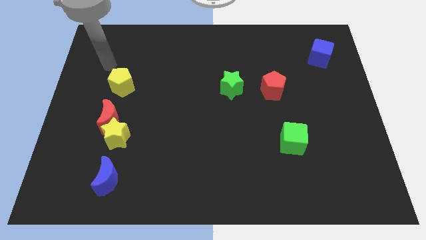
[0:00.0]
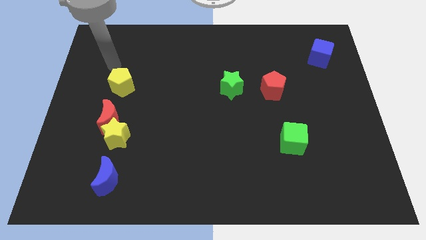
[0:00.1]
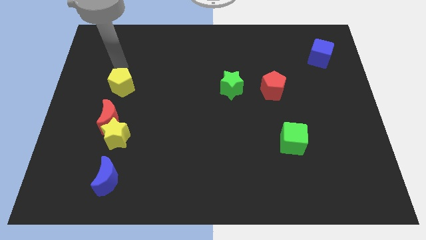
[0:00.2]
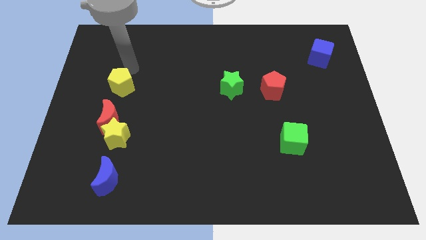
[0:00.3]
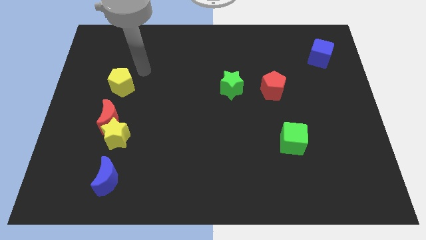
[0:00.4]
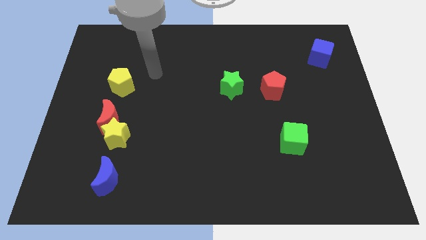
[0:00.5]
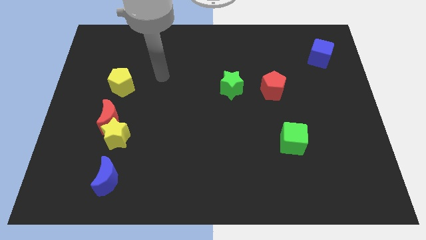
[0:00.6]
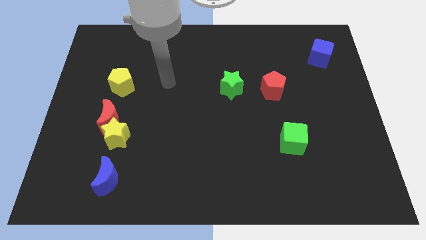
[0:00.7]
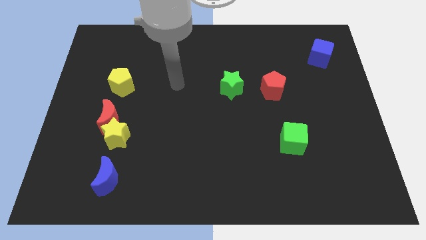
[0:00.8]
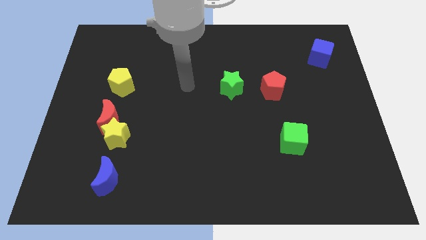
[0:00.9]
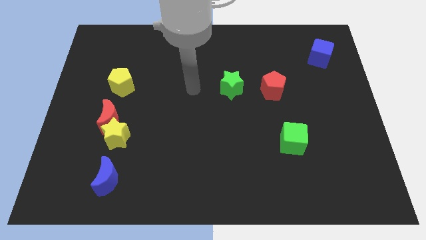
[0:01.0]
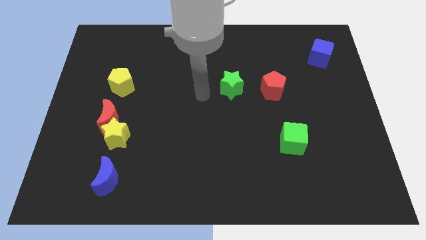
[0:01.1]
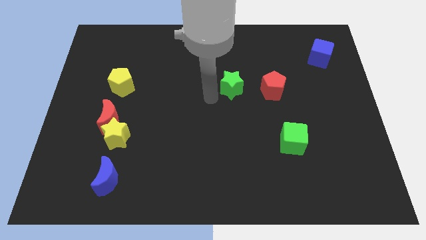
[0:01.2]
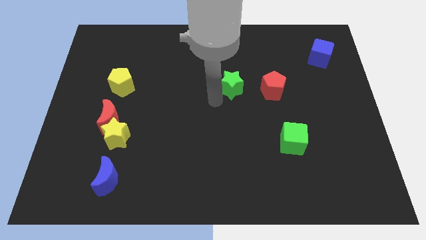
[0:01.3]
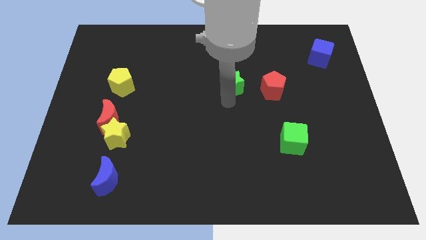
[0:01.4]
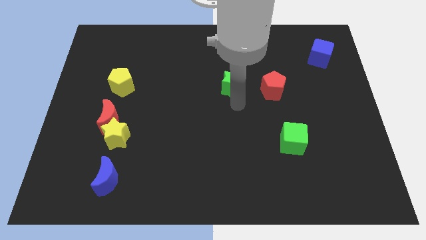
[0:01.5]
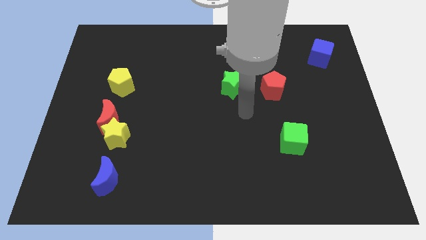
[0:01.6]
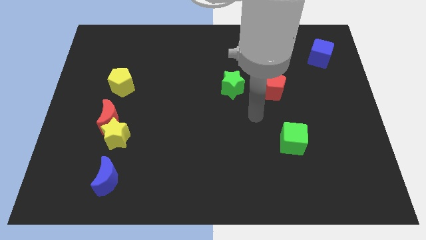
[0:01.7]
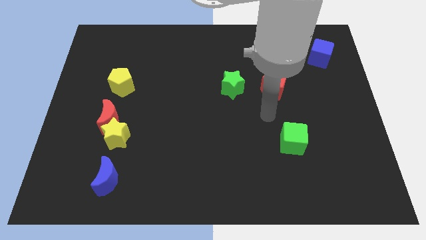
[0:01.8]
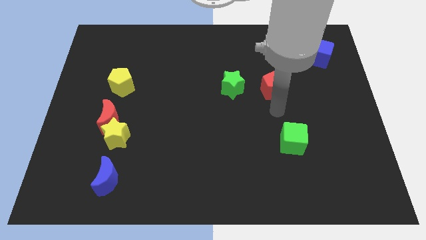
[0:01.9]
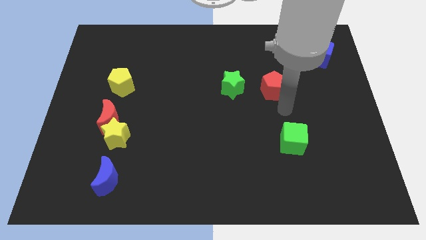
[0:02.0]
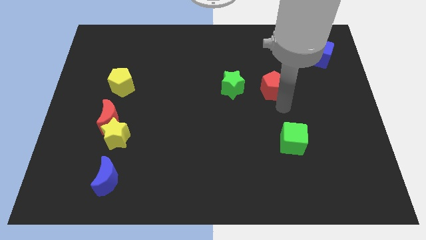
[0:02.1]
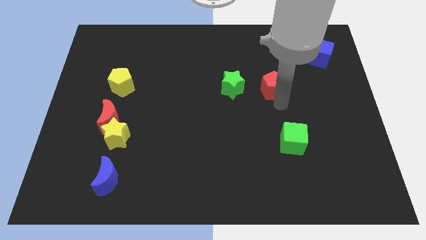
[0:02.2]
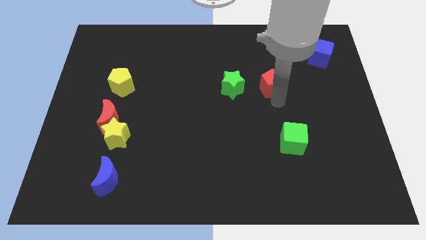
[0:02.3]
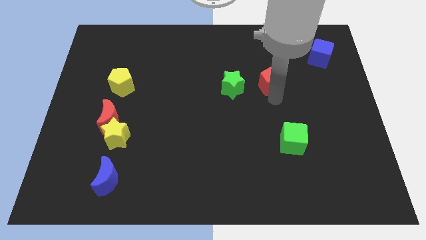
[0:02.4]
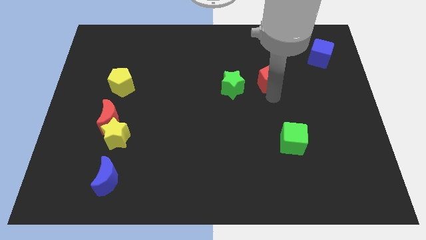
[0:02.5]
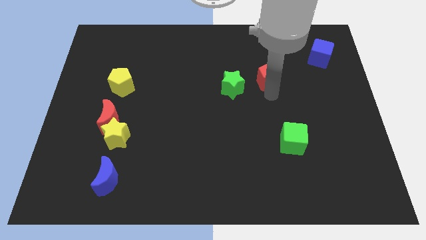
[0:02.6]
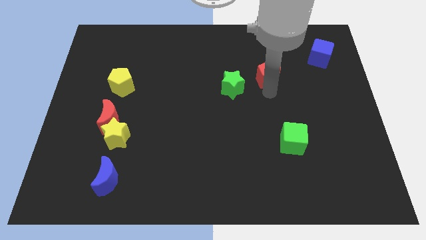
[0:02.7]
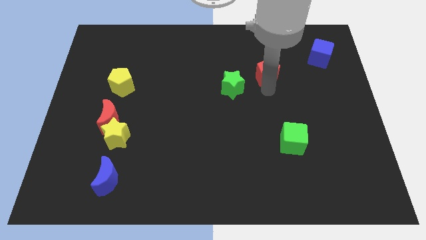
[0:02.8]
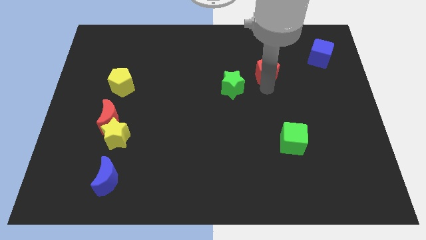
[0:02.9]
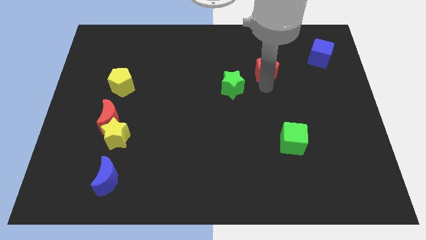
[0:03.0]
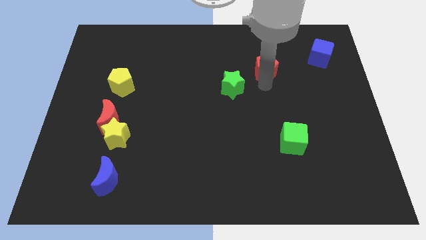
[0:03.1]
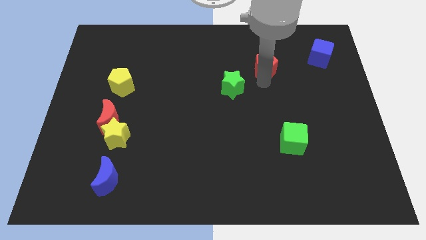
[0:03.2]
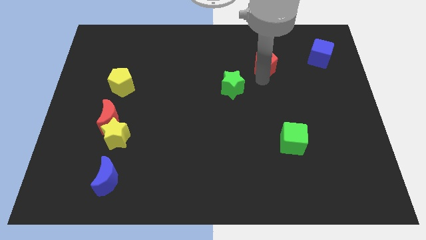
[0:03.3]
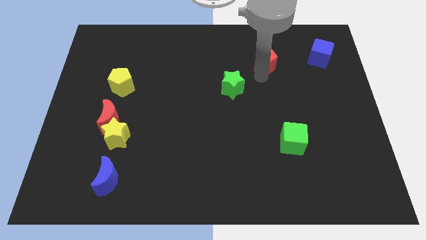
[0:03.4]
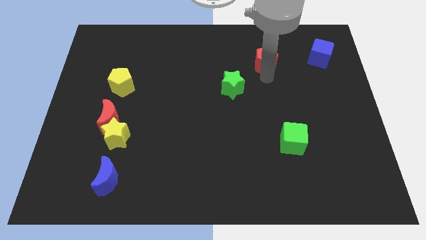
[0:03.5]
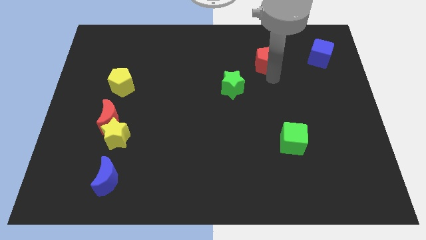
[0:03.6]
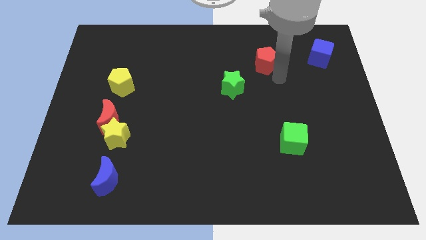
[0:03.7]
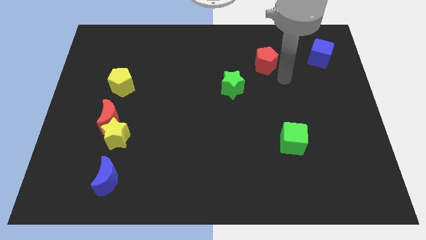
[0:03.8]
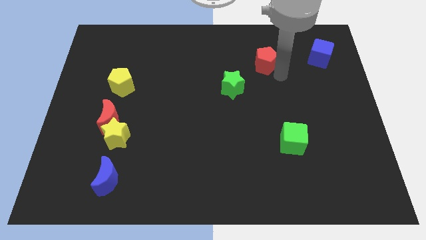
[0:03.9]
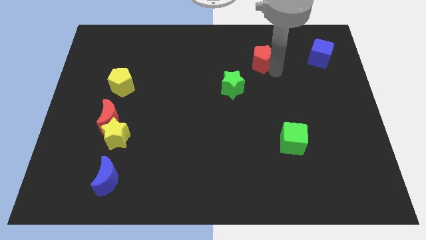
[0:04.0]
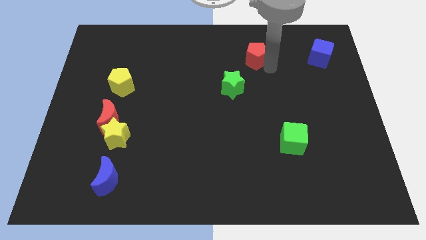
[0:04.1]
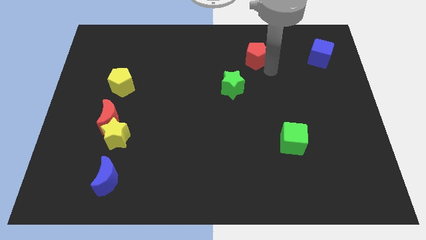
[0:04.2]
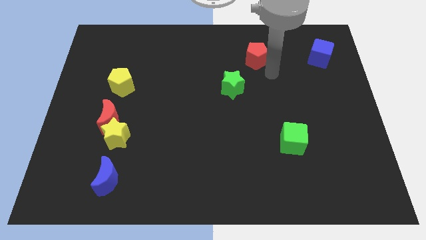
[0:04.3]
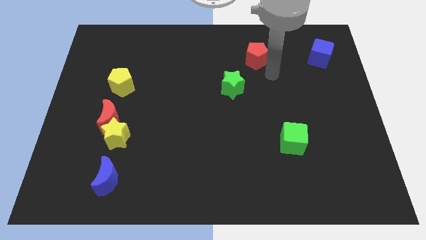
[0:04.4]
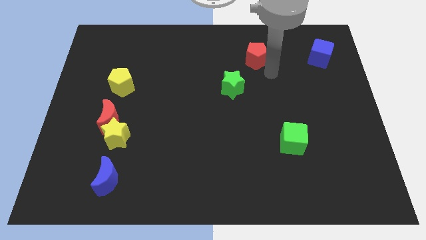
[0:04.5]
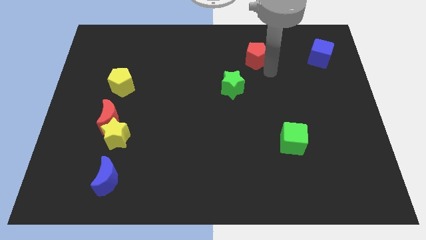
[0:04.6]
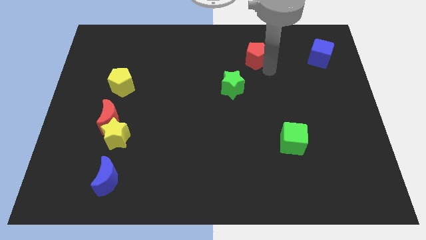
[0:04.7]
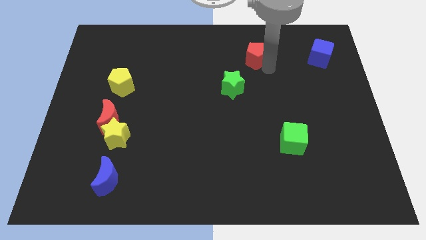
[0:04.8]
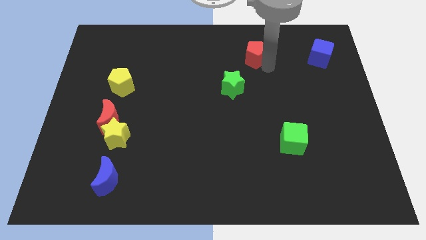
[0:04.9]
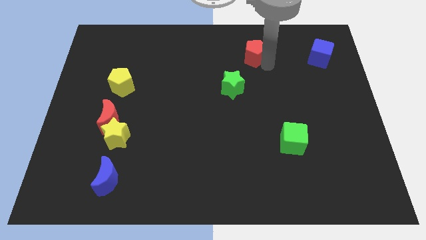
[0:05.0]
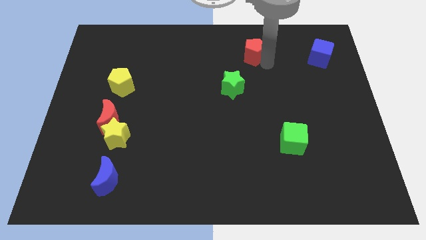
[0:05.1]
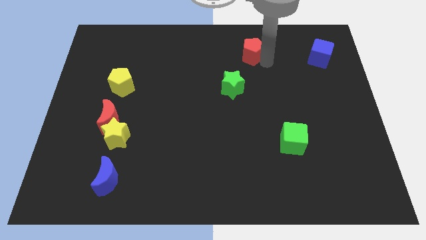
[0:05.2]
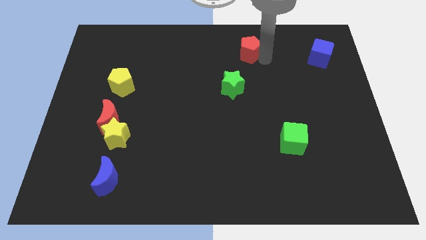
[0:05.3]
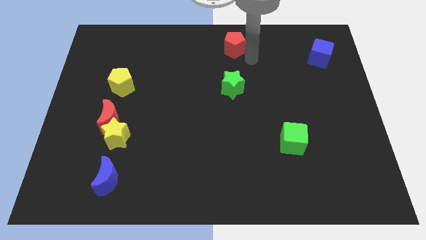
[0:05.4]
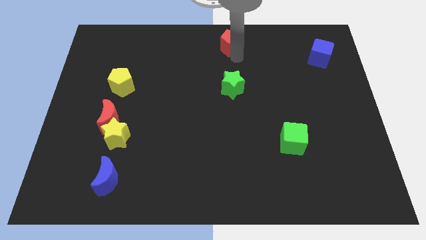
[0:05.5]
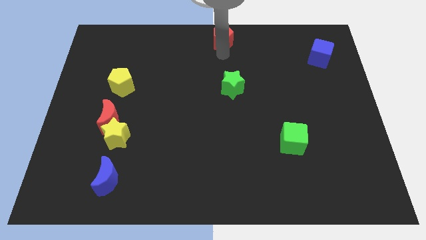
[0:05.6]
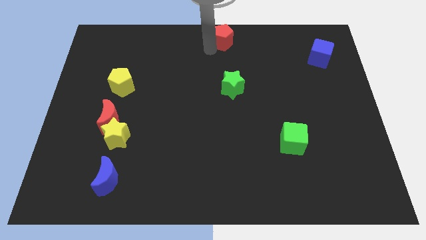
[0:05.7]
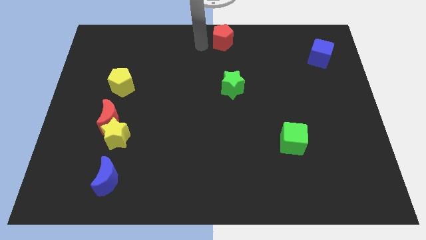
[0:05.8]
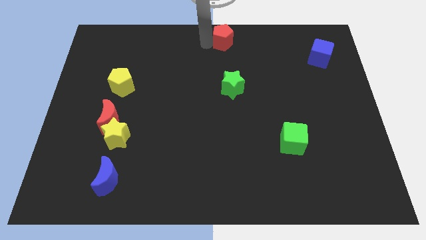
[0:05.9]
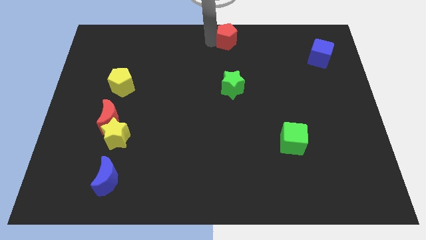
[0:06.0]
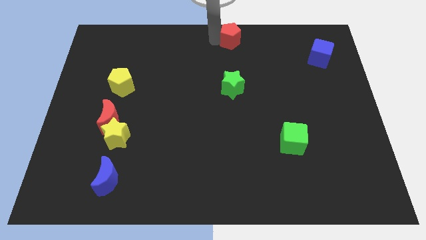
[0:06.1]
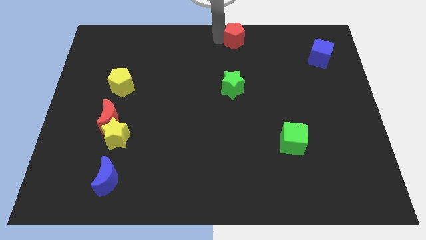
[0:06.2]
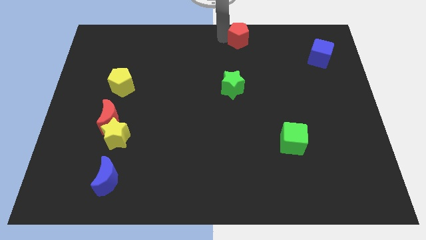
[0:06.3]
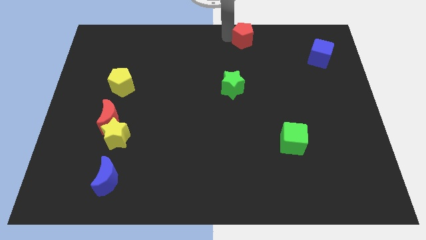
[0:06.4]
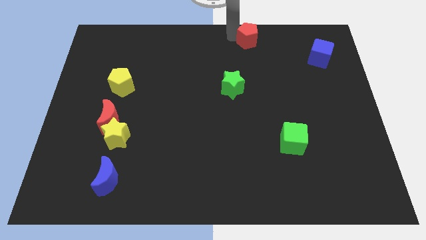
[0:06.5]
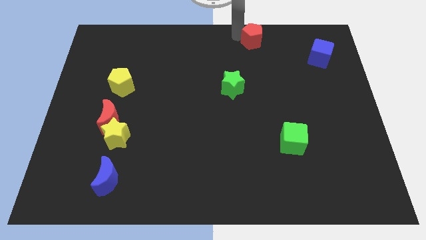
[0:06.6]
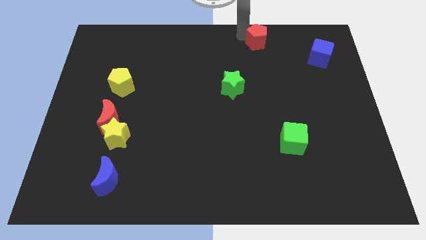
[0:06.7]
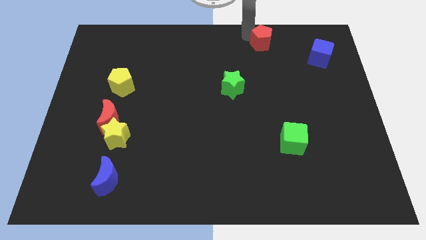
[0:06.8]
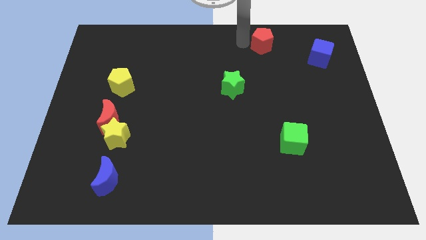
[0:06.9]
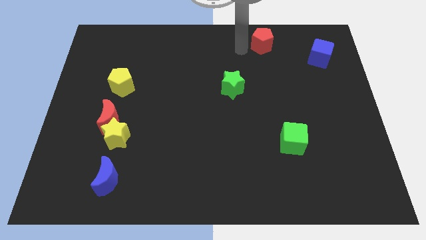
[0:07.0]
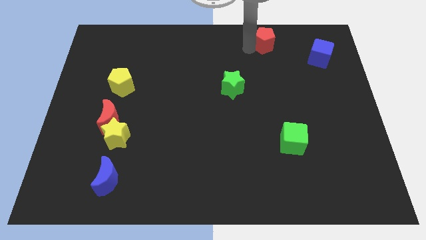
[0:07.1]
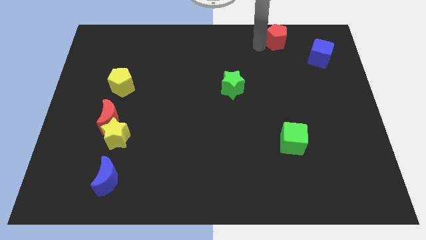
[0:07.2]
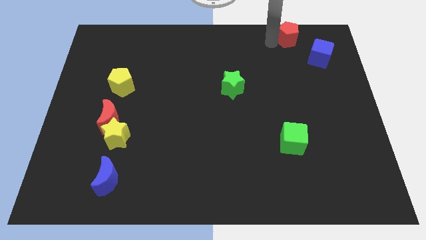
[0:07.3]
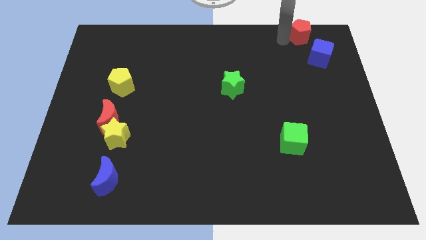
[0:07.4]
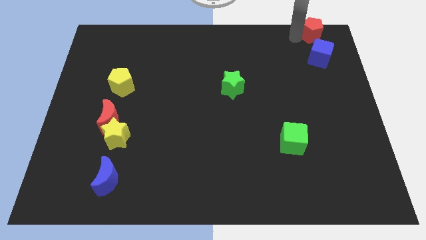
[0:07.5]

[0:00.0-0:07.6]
put the red pentagon to the top right
